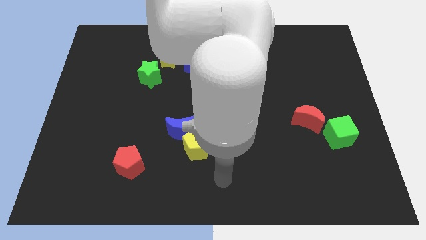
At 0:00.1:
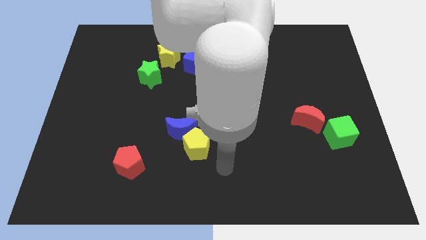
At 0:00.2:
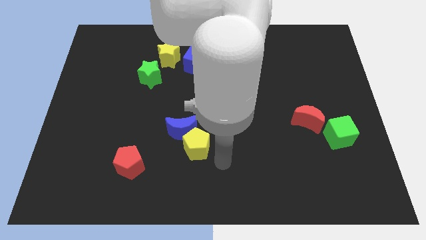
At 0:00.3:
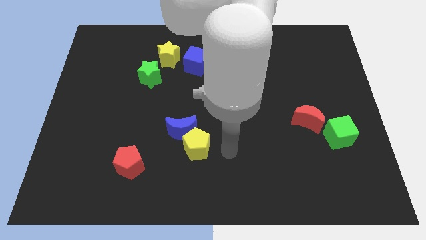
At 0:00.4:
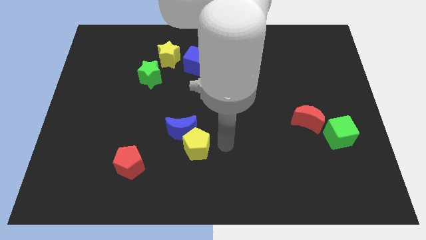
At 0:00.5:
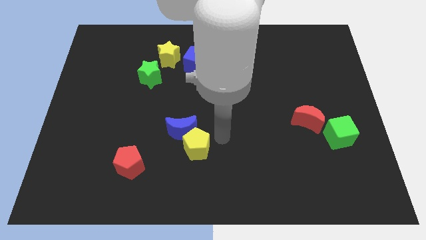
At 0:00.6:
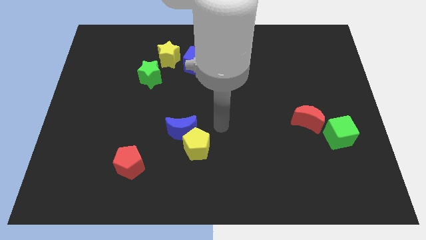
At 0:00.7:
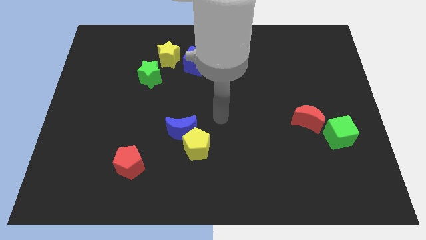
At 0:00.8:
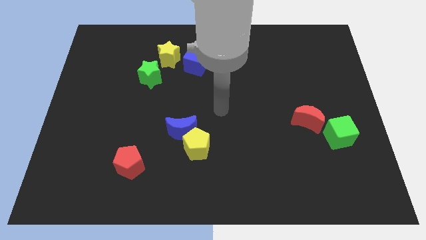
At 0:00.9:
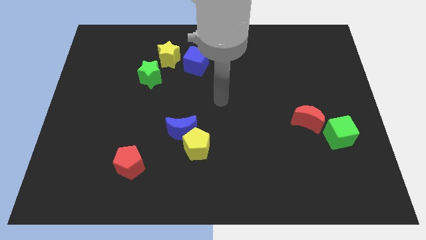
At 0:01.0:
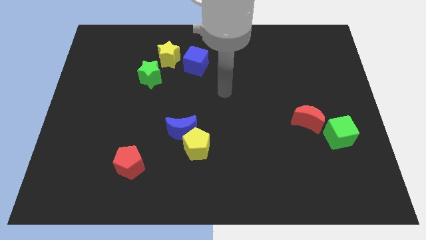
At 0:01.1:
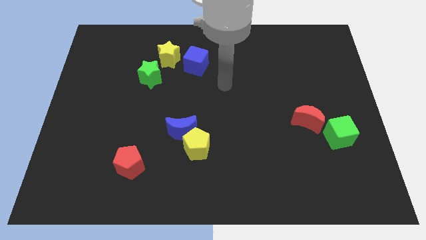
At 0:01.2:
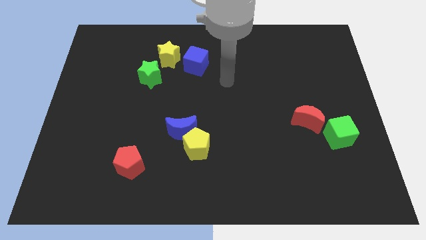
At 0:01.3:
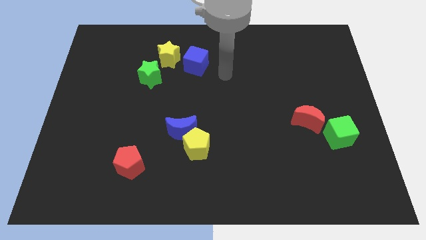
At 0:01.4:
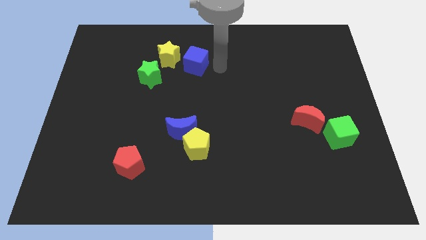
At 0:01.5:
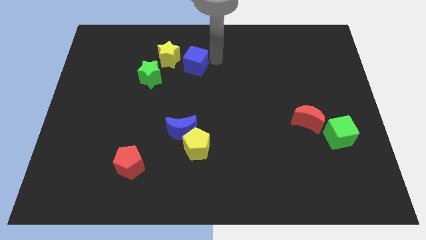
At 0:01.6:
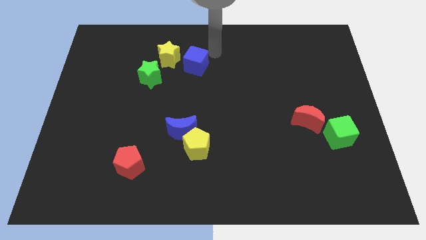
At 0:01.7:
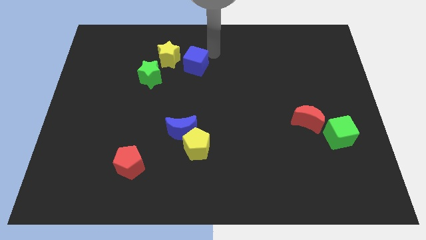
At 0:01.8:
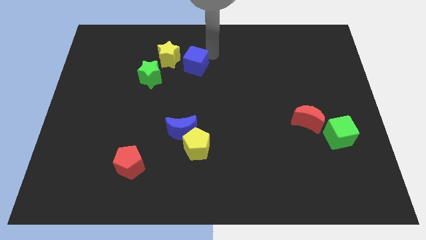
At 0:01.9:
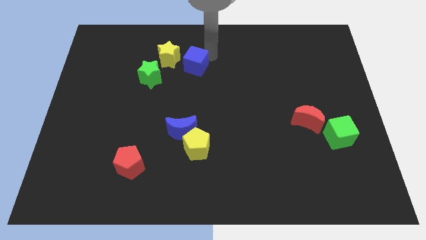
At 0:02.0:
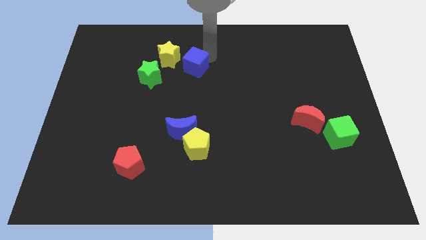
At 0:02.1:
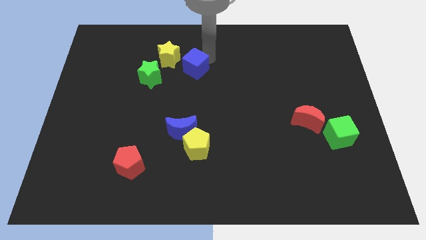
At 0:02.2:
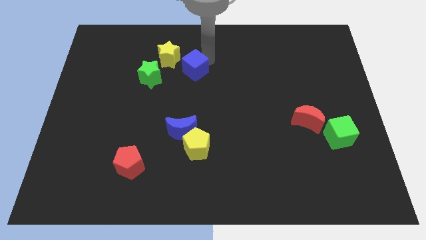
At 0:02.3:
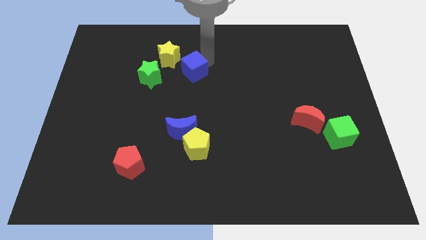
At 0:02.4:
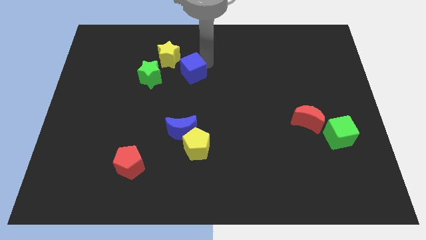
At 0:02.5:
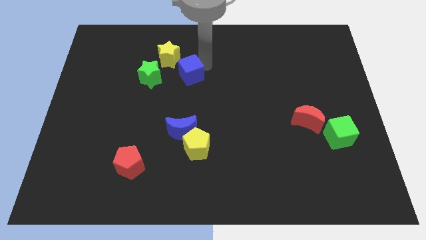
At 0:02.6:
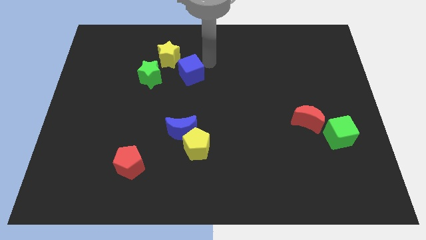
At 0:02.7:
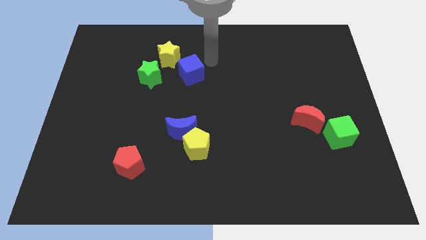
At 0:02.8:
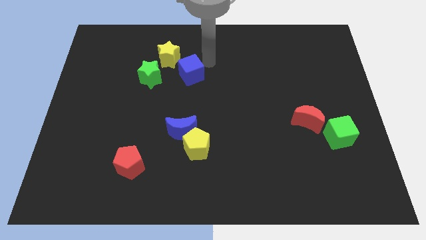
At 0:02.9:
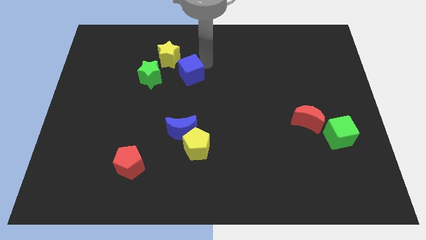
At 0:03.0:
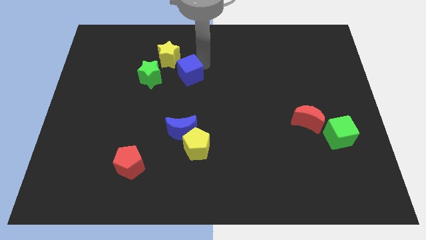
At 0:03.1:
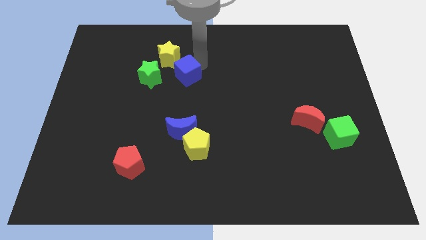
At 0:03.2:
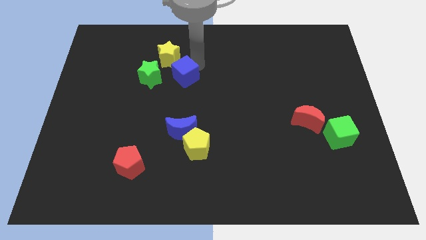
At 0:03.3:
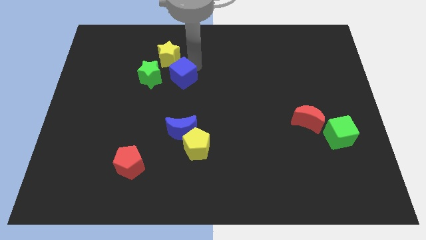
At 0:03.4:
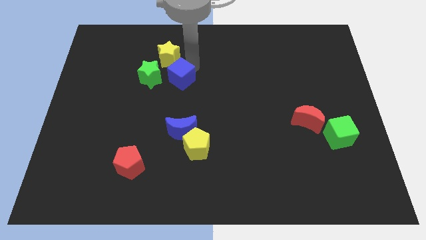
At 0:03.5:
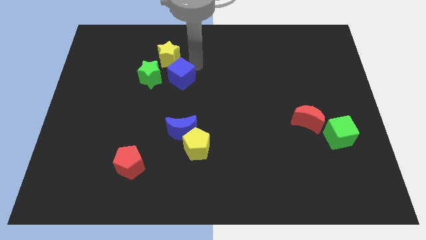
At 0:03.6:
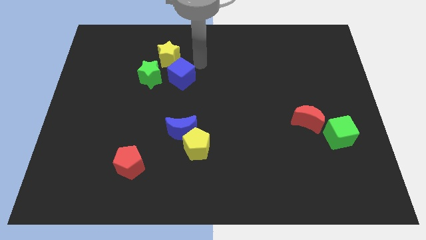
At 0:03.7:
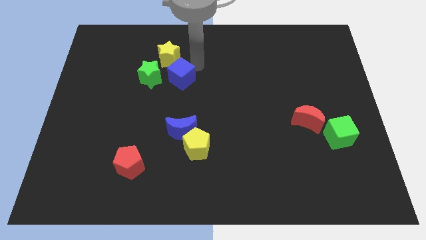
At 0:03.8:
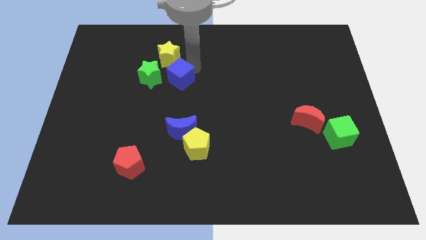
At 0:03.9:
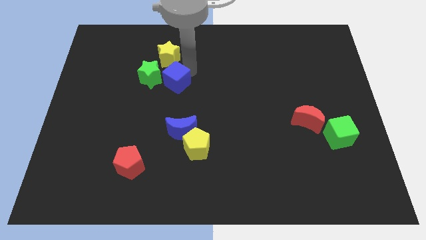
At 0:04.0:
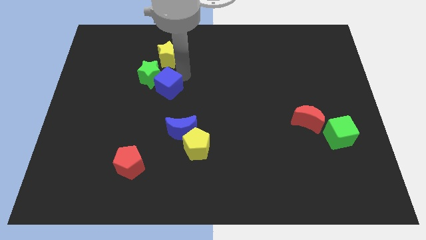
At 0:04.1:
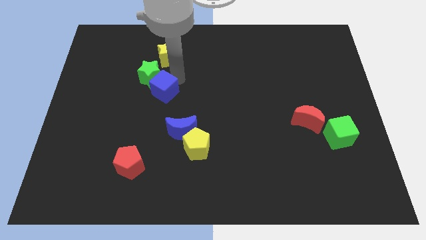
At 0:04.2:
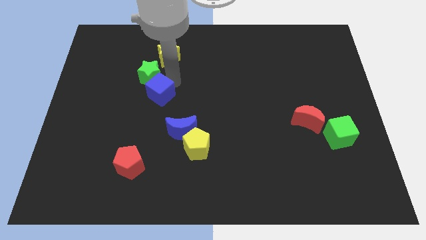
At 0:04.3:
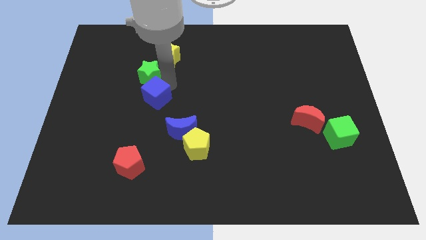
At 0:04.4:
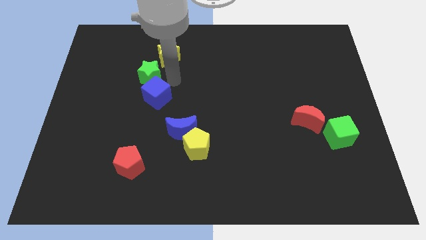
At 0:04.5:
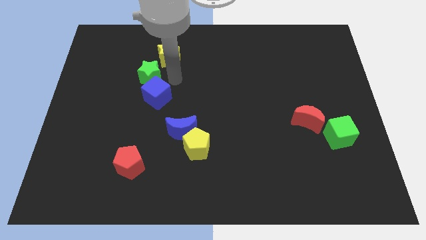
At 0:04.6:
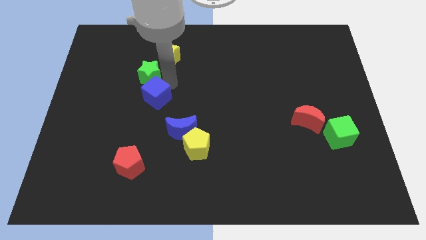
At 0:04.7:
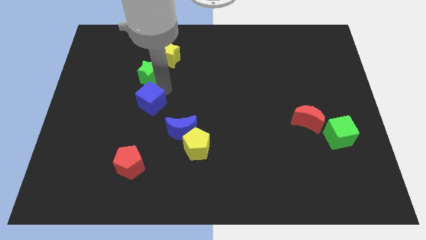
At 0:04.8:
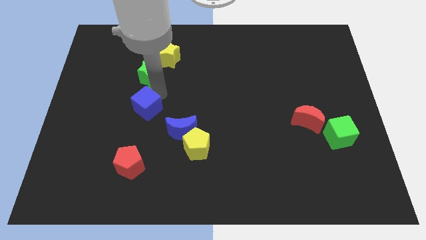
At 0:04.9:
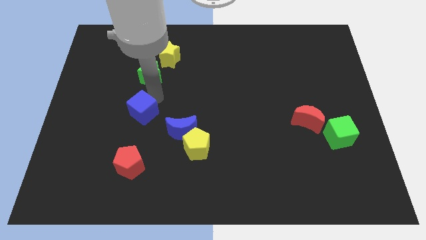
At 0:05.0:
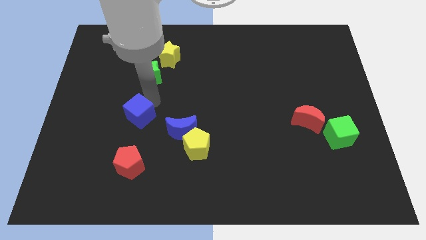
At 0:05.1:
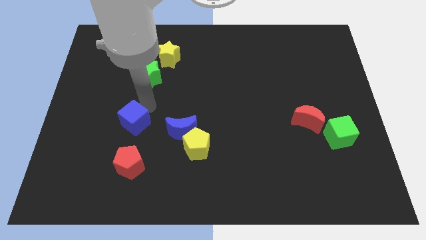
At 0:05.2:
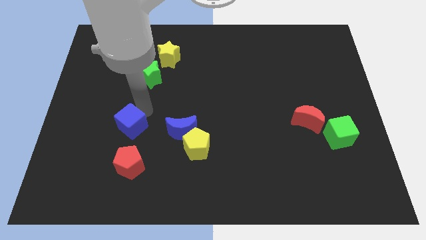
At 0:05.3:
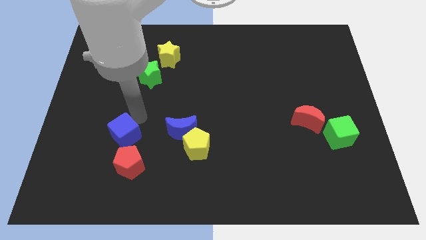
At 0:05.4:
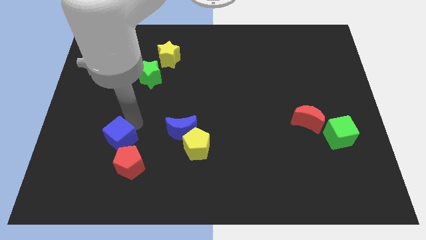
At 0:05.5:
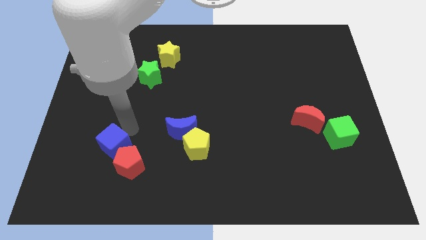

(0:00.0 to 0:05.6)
push the blue cube to the left of the red pentagon

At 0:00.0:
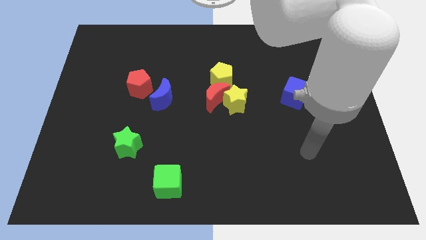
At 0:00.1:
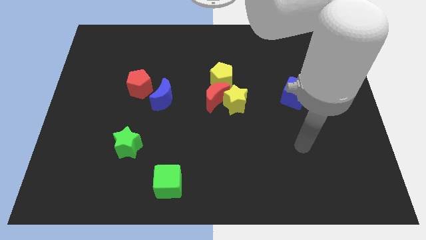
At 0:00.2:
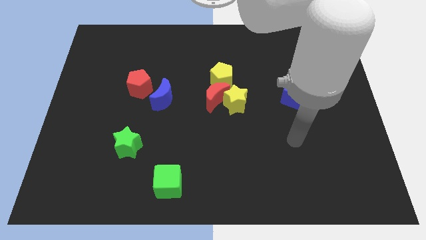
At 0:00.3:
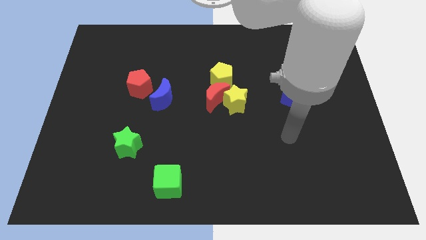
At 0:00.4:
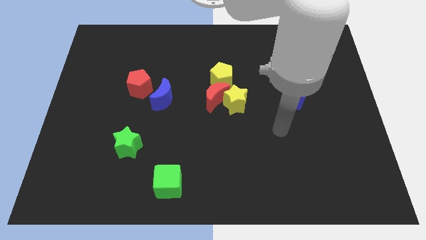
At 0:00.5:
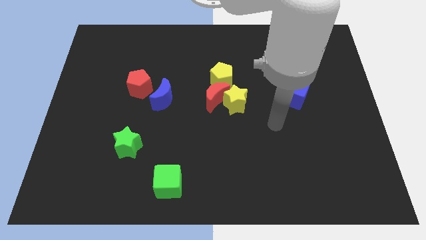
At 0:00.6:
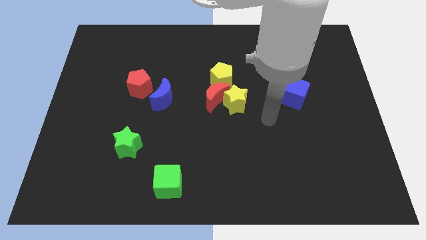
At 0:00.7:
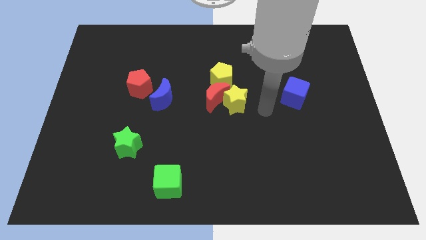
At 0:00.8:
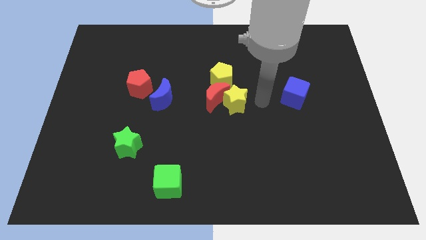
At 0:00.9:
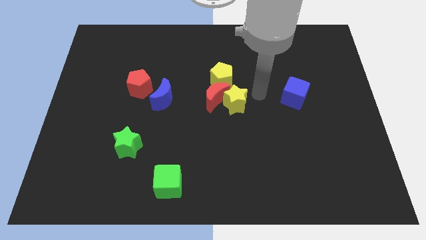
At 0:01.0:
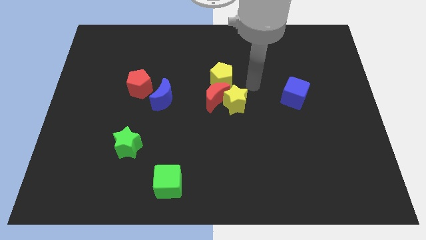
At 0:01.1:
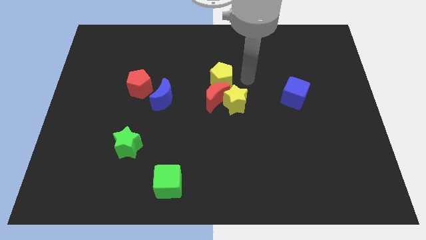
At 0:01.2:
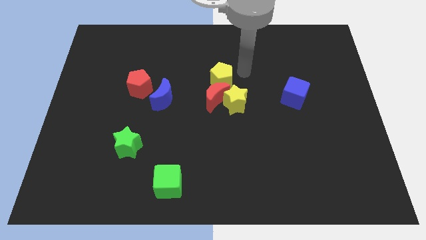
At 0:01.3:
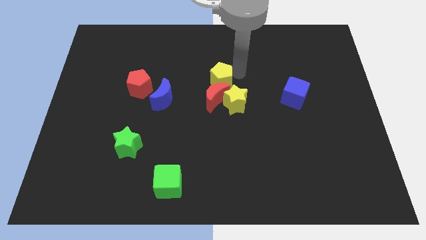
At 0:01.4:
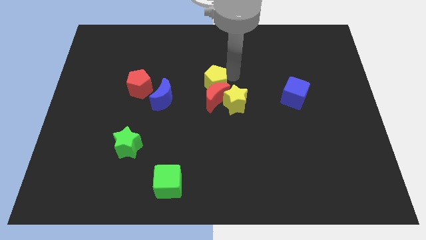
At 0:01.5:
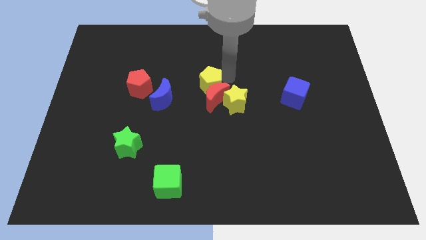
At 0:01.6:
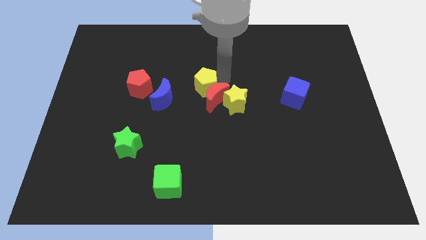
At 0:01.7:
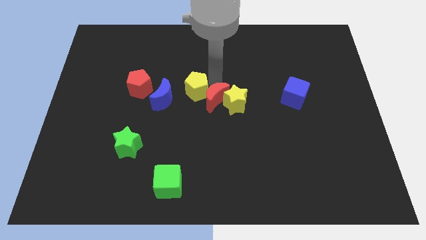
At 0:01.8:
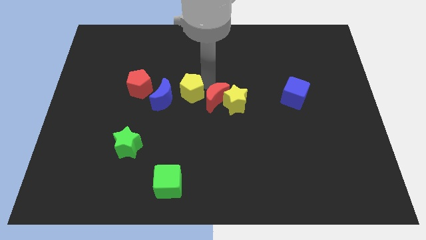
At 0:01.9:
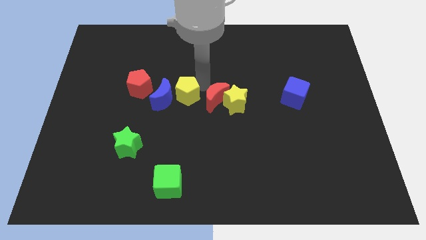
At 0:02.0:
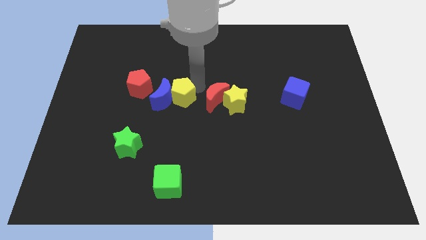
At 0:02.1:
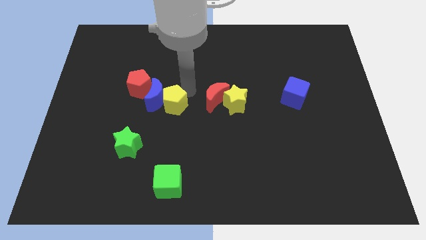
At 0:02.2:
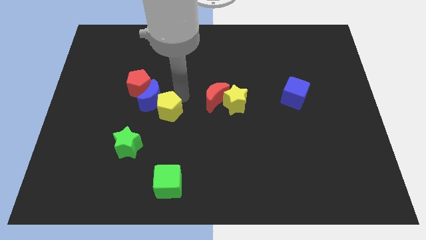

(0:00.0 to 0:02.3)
put the yellow pentagon diagonally up and to the right of the green star
